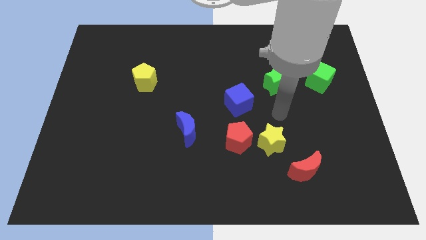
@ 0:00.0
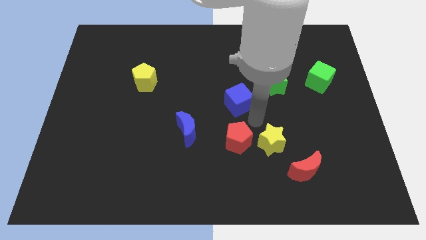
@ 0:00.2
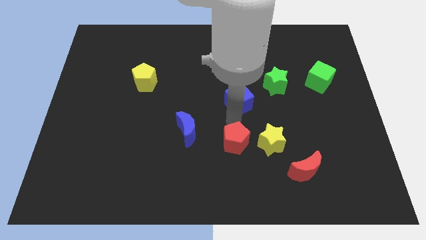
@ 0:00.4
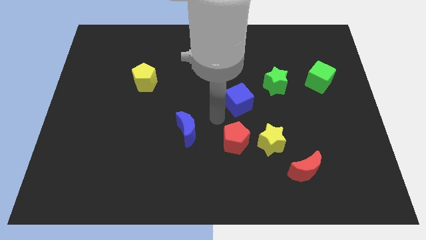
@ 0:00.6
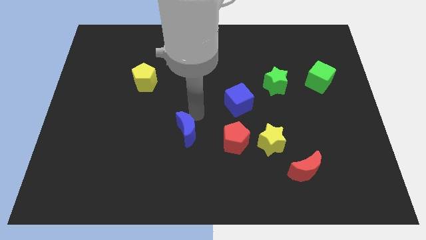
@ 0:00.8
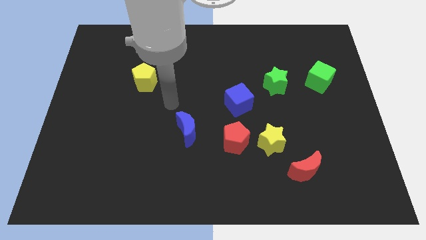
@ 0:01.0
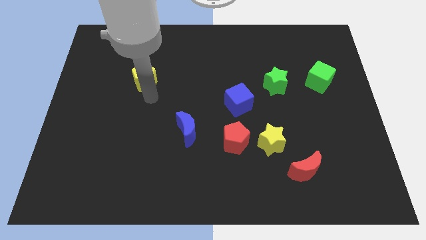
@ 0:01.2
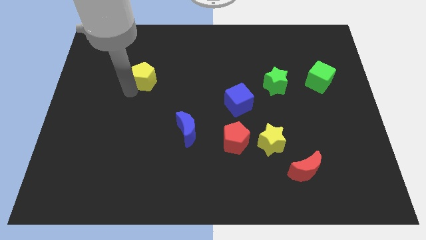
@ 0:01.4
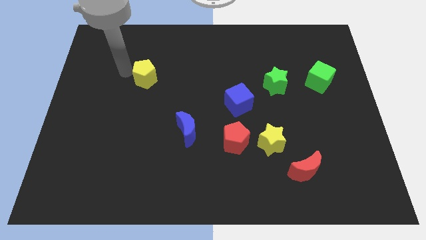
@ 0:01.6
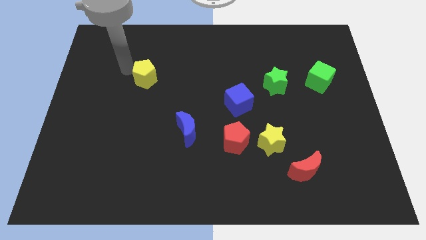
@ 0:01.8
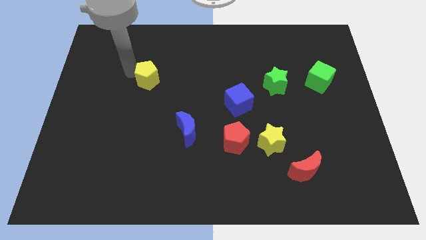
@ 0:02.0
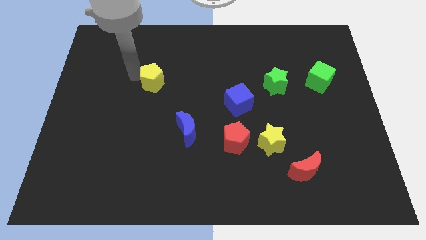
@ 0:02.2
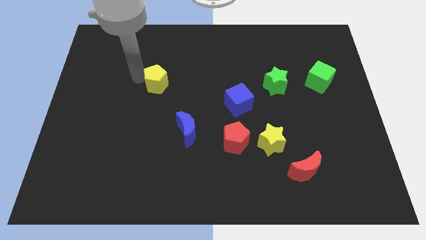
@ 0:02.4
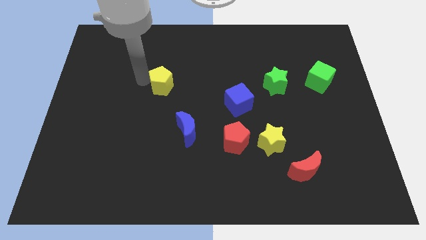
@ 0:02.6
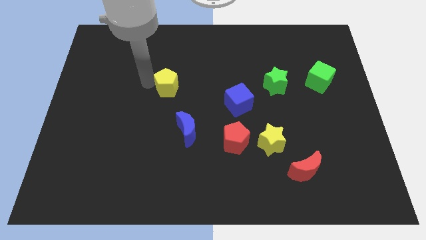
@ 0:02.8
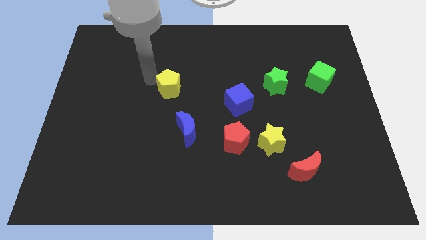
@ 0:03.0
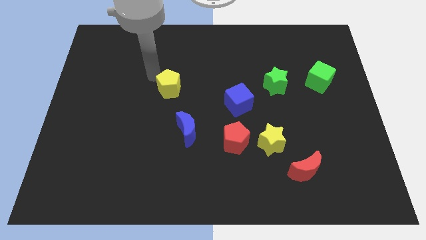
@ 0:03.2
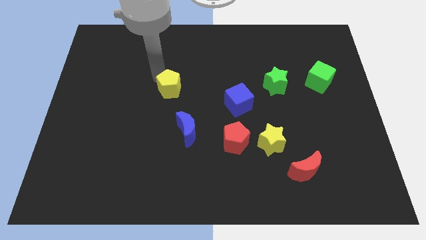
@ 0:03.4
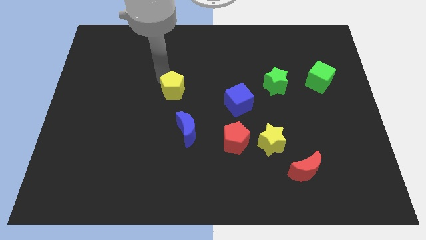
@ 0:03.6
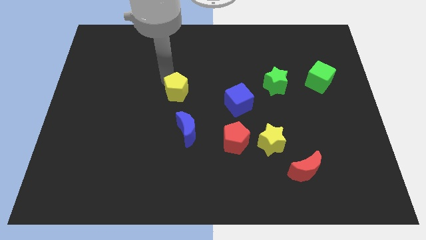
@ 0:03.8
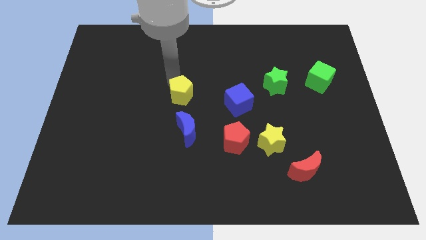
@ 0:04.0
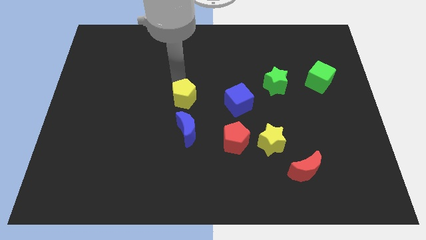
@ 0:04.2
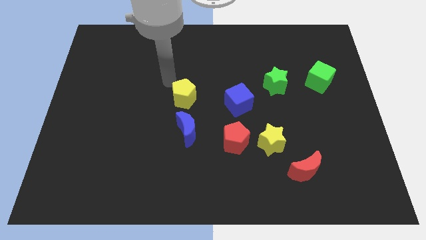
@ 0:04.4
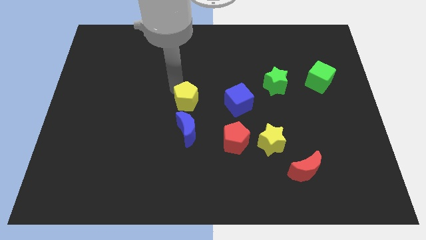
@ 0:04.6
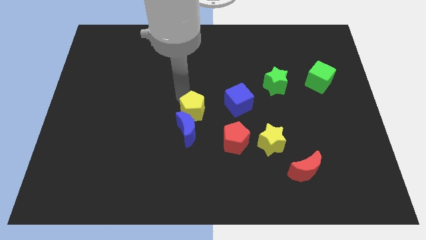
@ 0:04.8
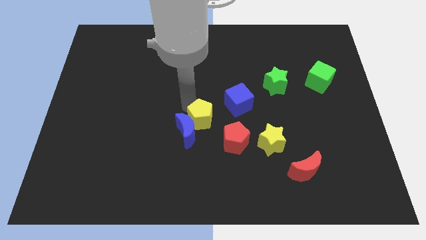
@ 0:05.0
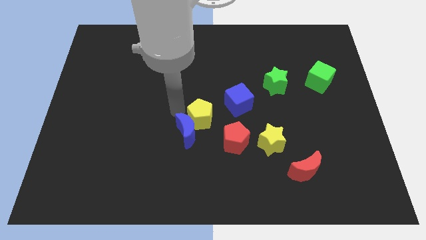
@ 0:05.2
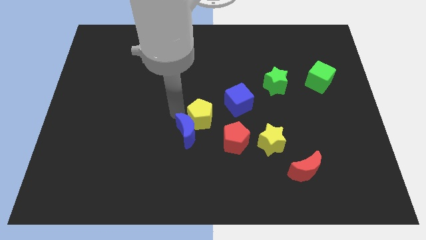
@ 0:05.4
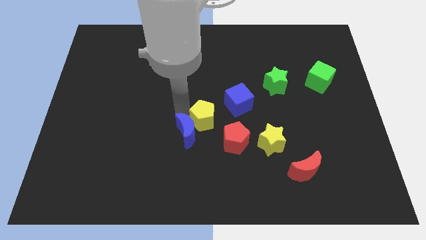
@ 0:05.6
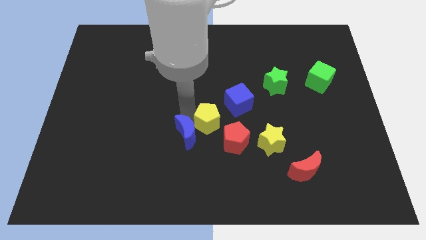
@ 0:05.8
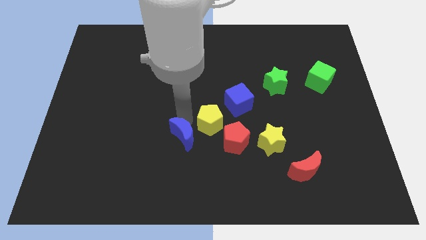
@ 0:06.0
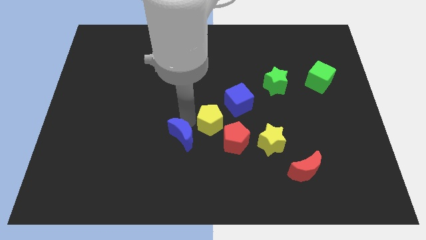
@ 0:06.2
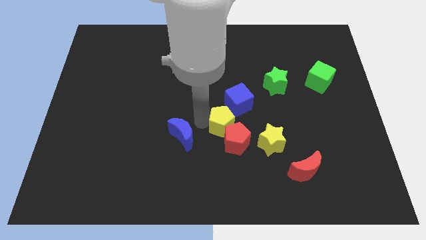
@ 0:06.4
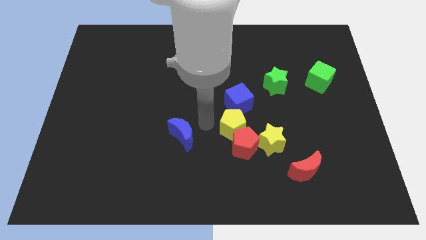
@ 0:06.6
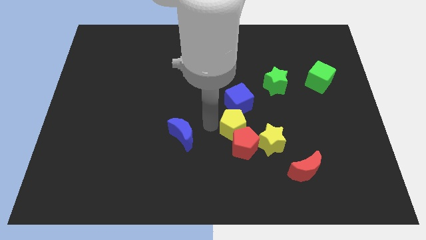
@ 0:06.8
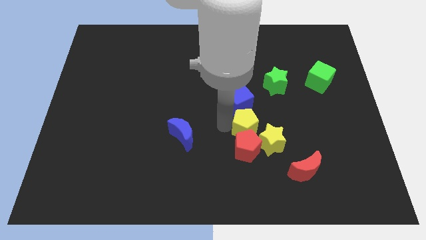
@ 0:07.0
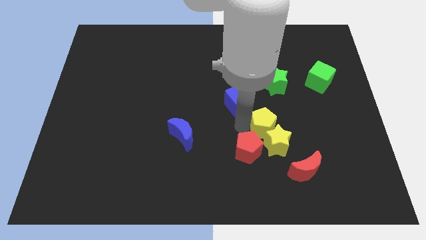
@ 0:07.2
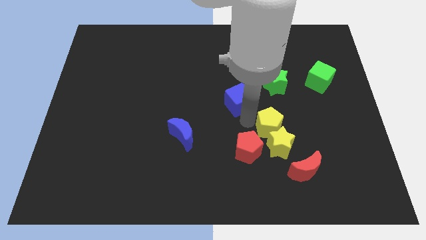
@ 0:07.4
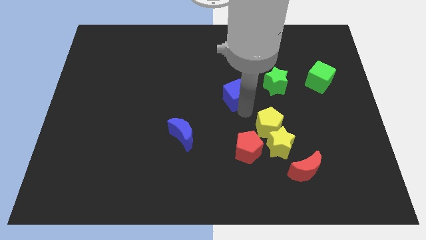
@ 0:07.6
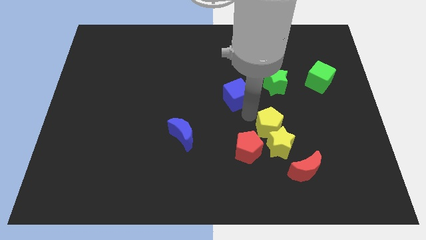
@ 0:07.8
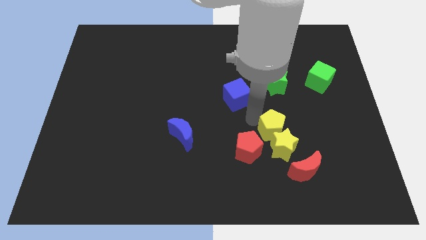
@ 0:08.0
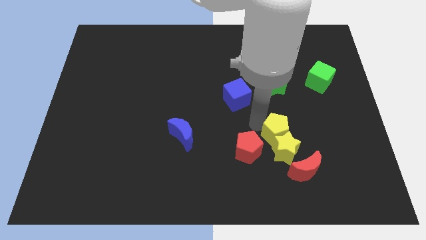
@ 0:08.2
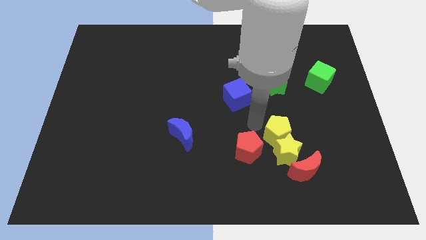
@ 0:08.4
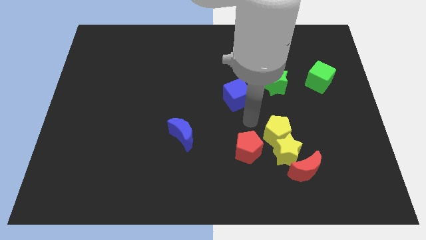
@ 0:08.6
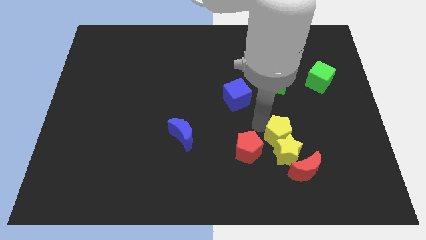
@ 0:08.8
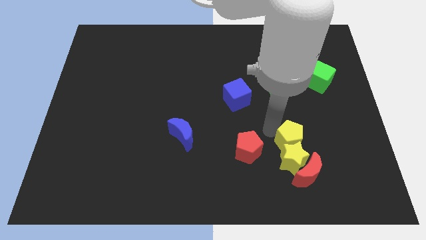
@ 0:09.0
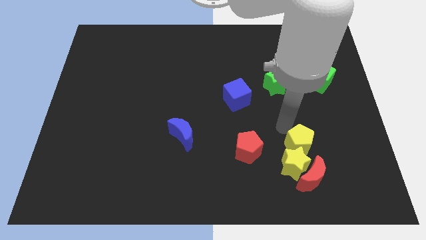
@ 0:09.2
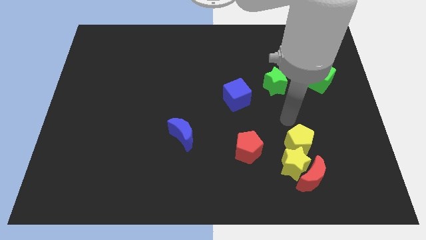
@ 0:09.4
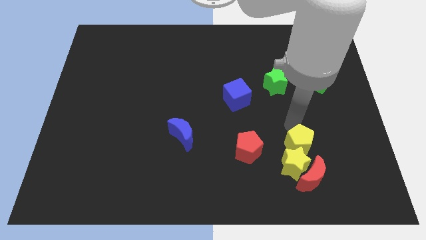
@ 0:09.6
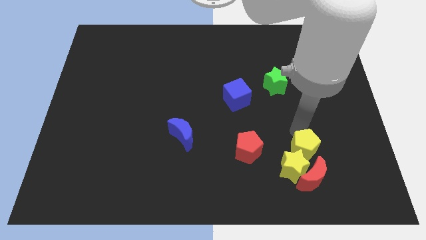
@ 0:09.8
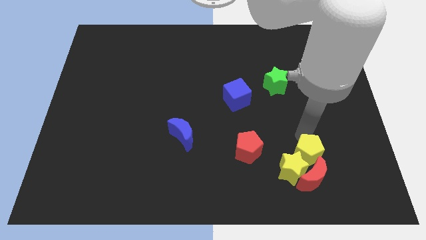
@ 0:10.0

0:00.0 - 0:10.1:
slide the yellow pentagon towards the red moon

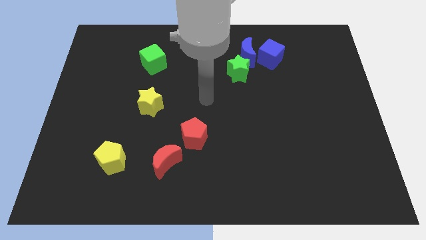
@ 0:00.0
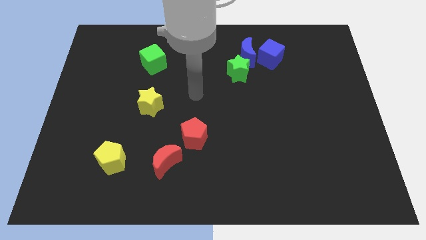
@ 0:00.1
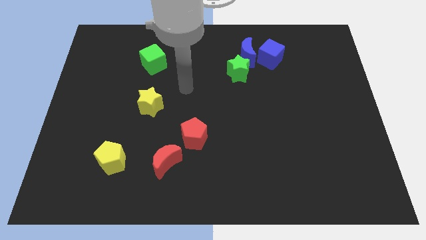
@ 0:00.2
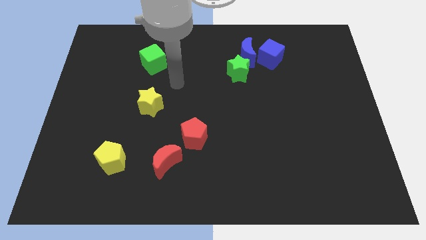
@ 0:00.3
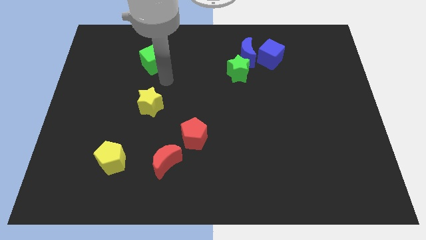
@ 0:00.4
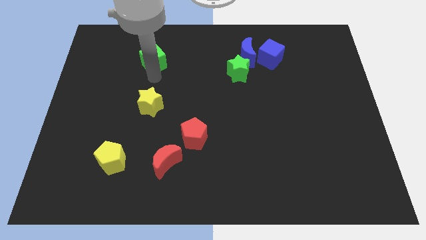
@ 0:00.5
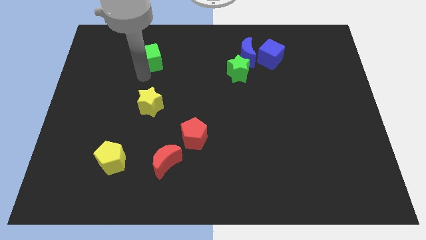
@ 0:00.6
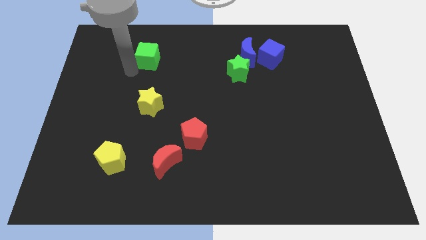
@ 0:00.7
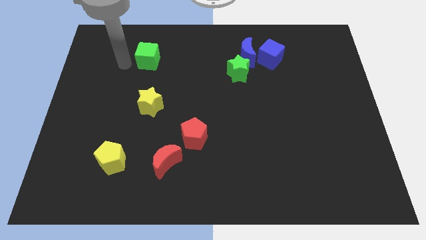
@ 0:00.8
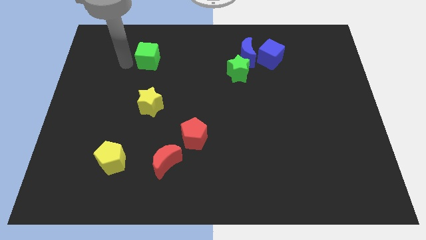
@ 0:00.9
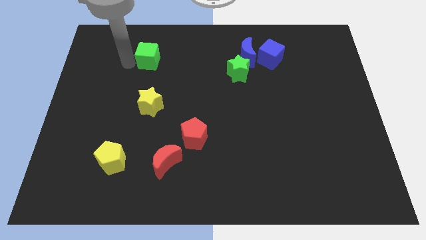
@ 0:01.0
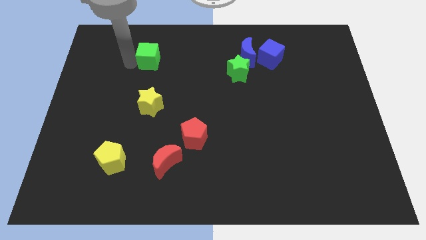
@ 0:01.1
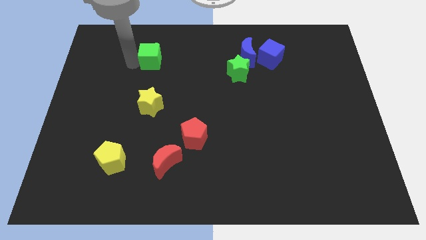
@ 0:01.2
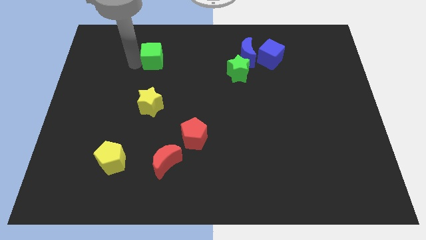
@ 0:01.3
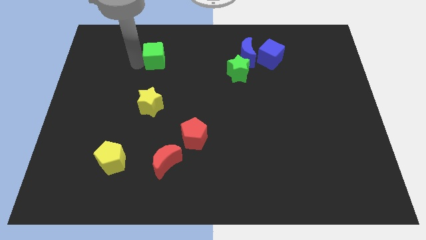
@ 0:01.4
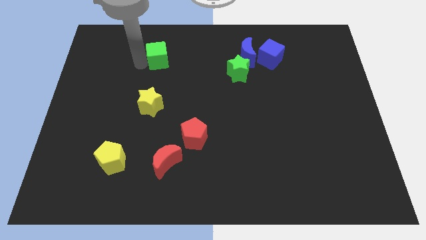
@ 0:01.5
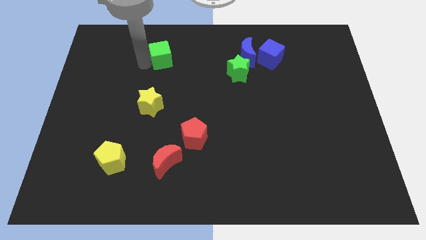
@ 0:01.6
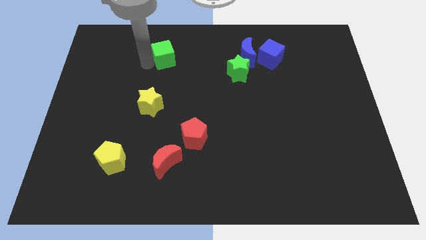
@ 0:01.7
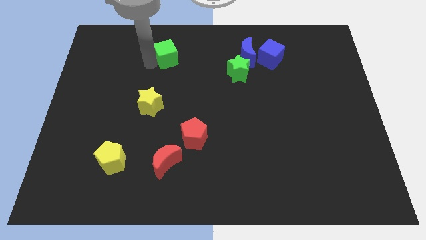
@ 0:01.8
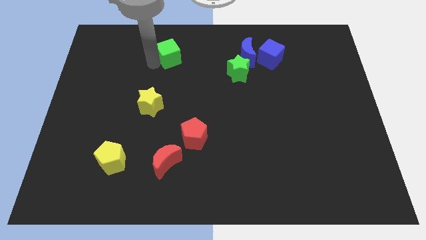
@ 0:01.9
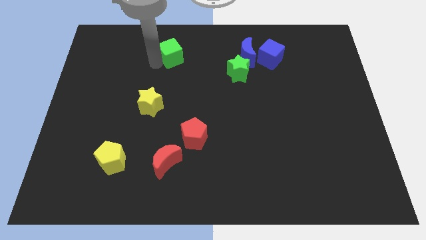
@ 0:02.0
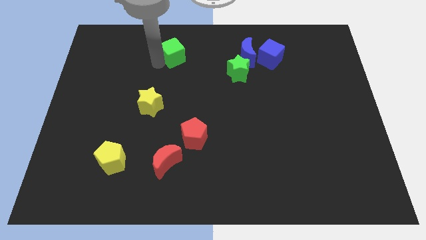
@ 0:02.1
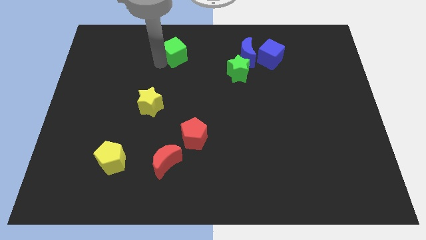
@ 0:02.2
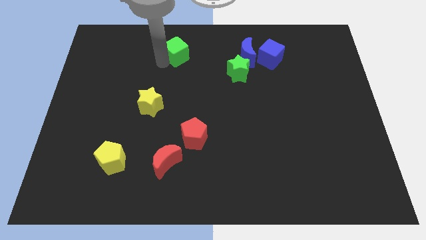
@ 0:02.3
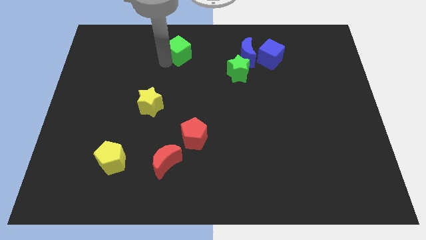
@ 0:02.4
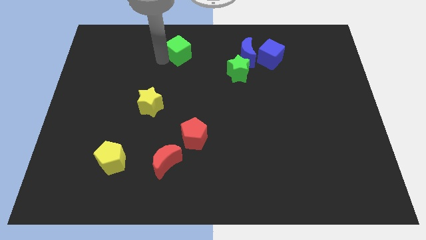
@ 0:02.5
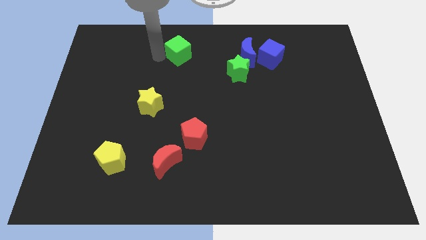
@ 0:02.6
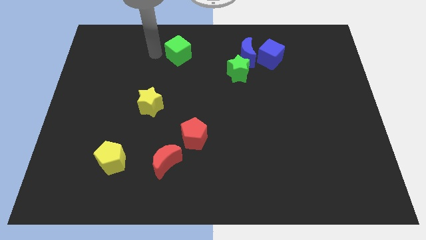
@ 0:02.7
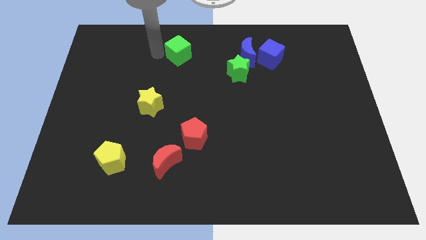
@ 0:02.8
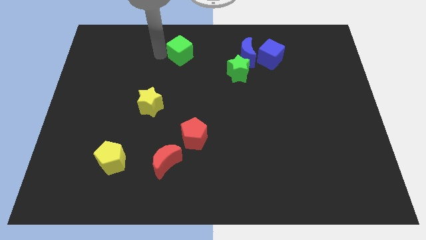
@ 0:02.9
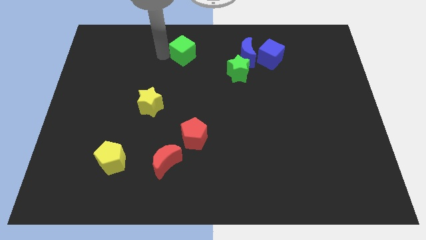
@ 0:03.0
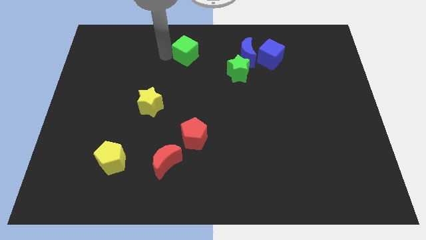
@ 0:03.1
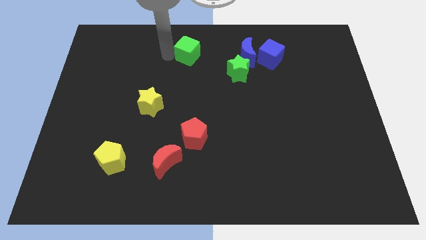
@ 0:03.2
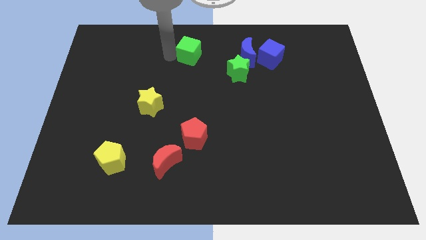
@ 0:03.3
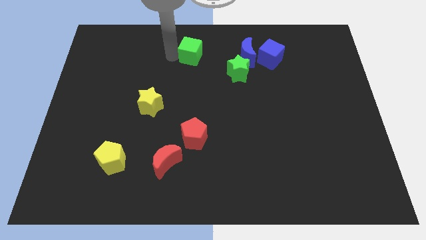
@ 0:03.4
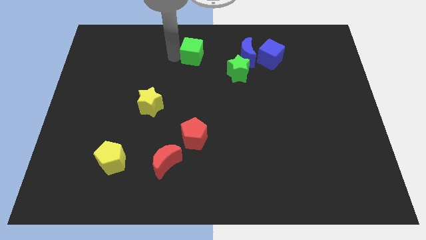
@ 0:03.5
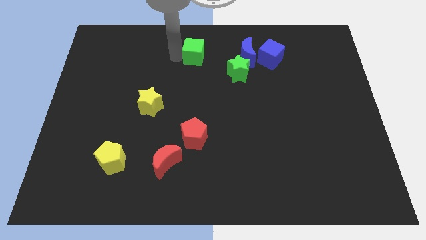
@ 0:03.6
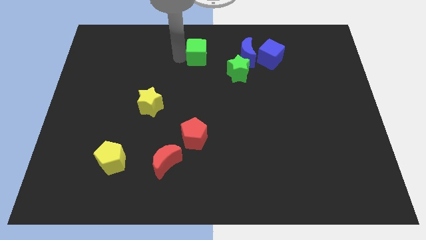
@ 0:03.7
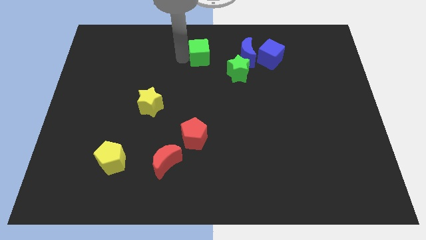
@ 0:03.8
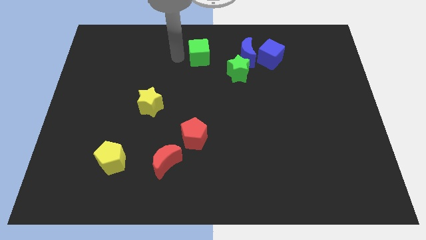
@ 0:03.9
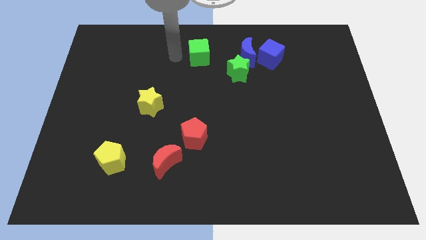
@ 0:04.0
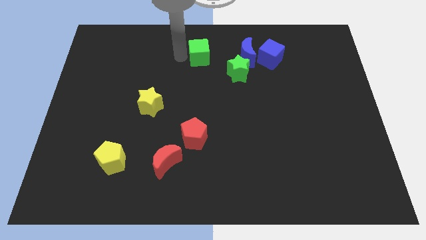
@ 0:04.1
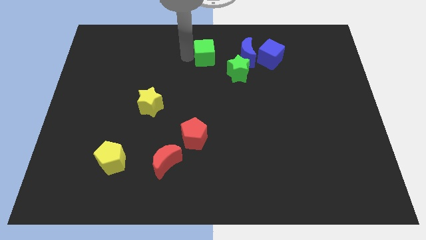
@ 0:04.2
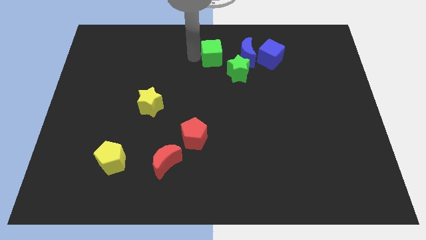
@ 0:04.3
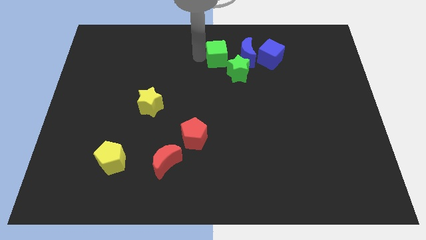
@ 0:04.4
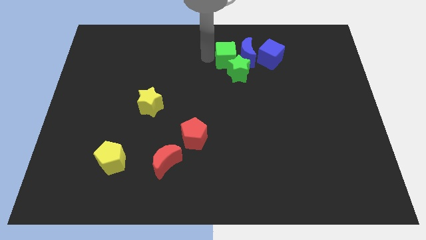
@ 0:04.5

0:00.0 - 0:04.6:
move the green cube next to the blue moon
